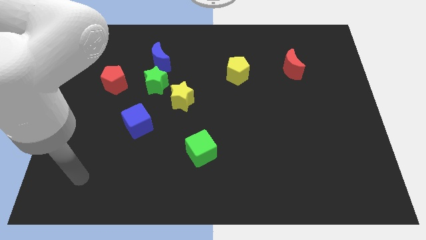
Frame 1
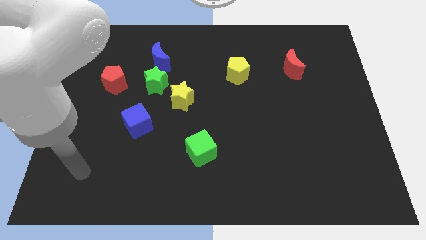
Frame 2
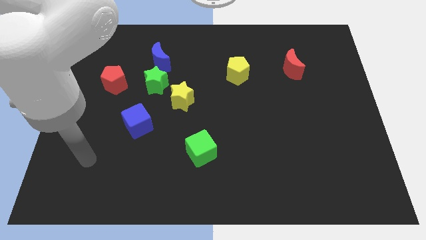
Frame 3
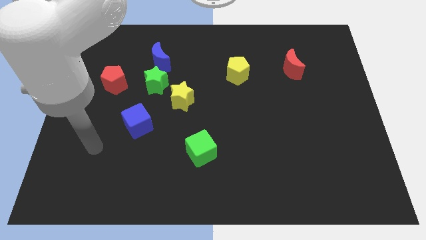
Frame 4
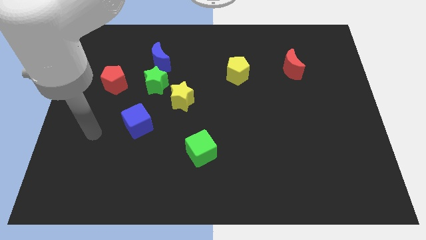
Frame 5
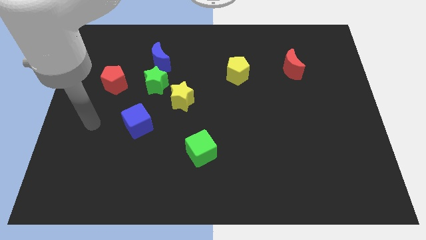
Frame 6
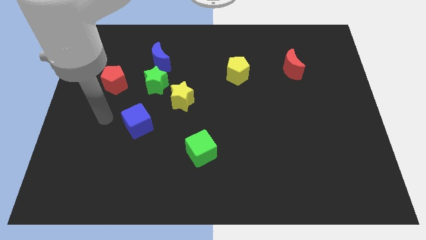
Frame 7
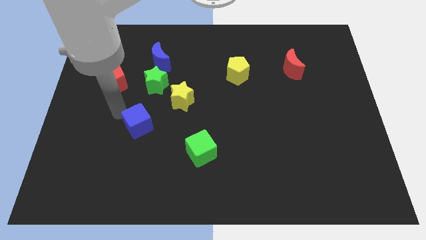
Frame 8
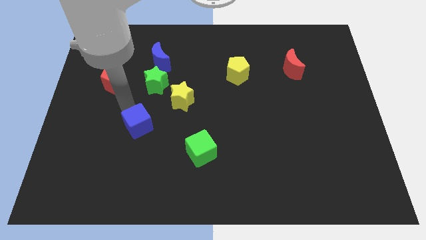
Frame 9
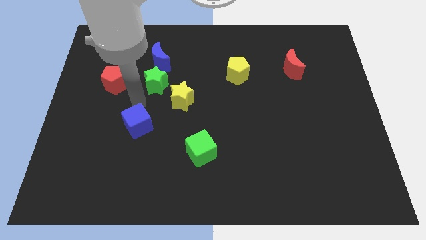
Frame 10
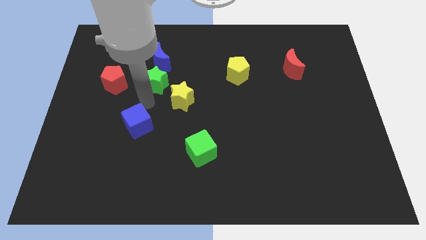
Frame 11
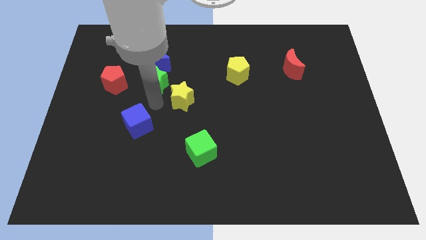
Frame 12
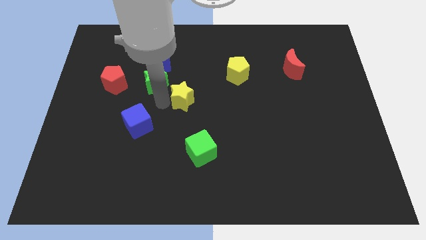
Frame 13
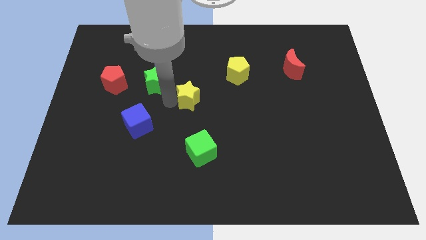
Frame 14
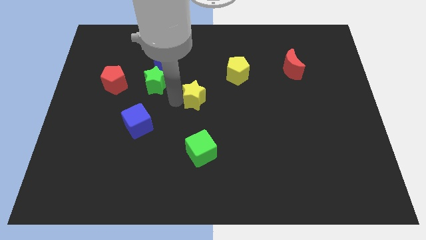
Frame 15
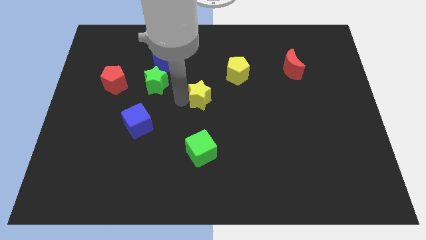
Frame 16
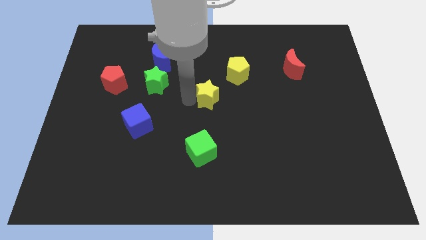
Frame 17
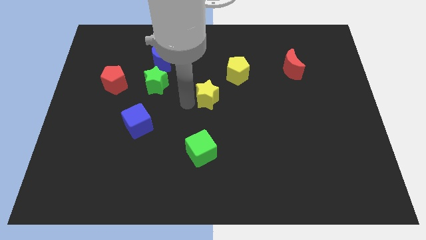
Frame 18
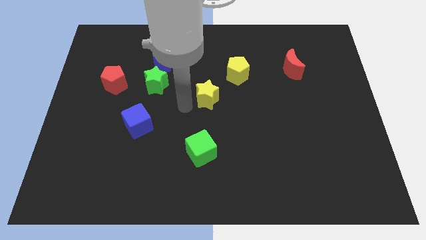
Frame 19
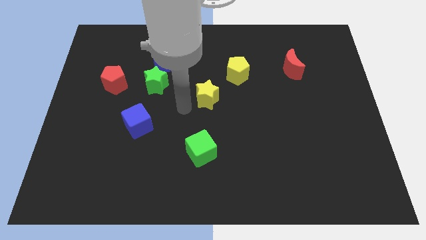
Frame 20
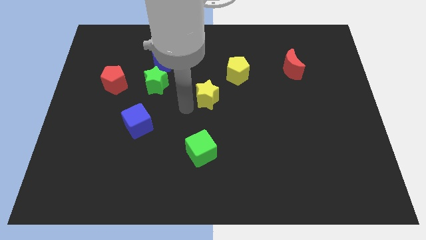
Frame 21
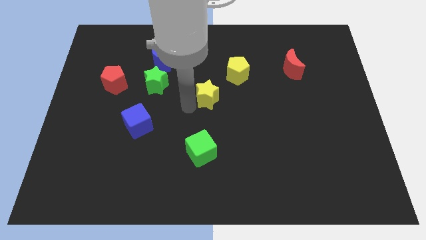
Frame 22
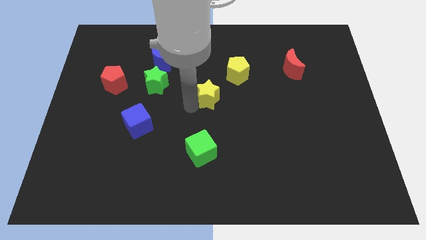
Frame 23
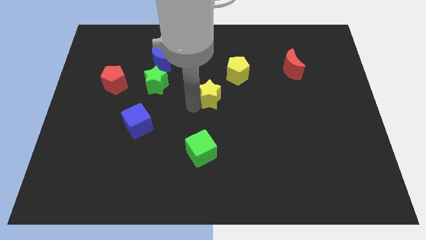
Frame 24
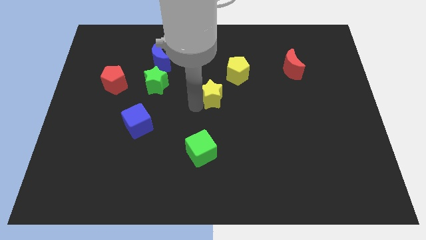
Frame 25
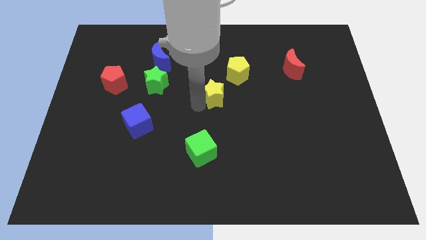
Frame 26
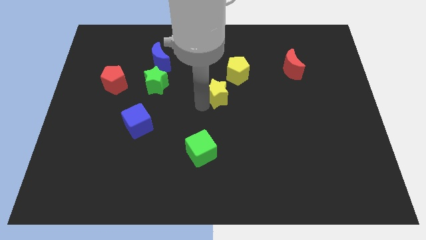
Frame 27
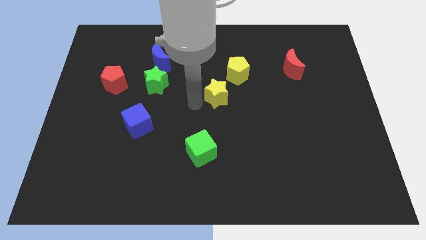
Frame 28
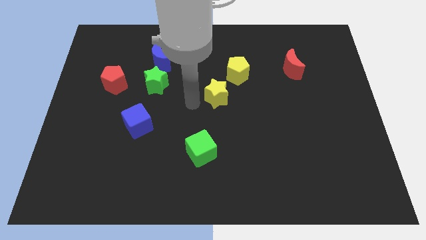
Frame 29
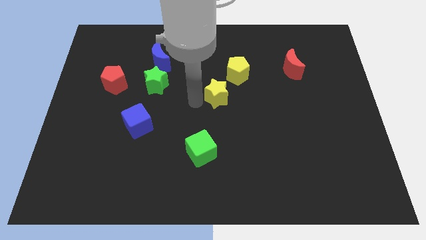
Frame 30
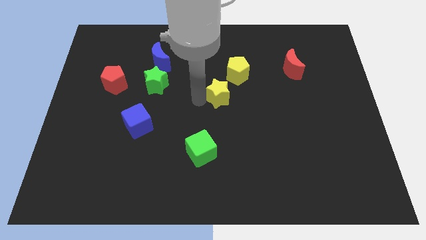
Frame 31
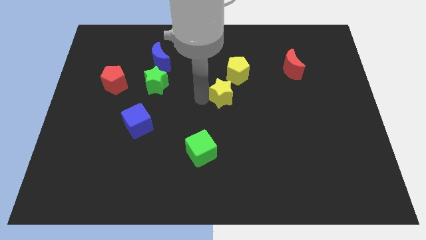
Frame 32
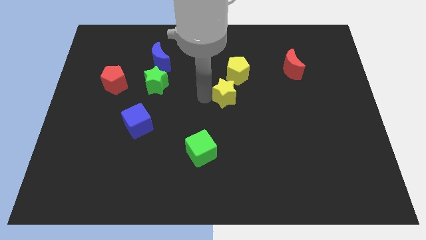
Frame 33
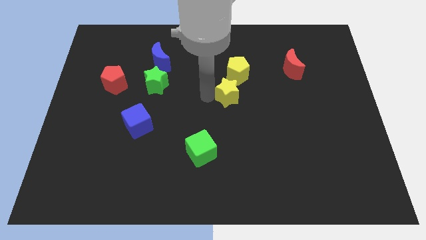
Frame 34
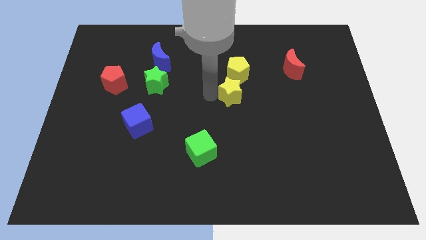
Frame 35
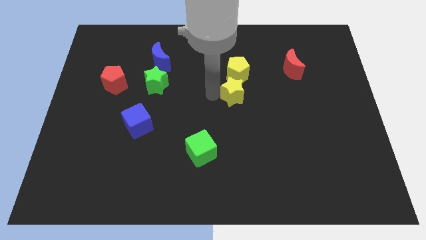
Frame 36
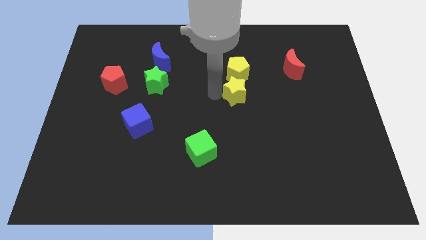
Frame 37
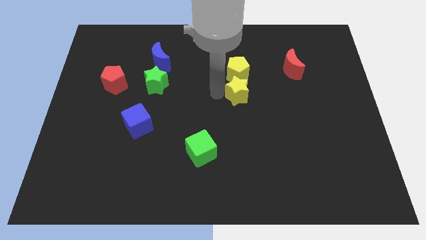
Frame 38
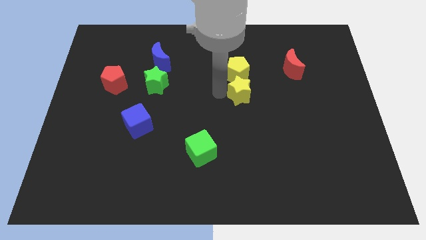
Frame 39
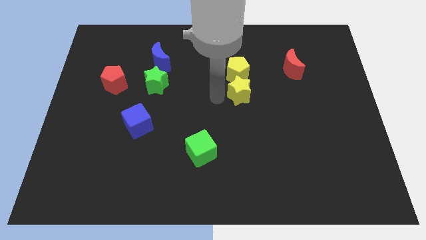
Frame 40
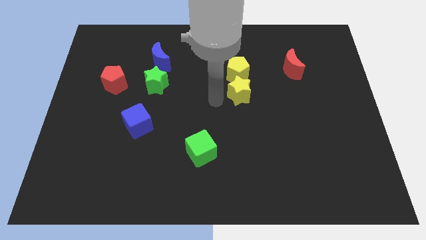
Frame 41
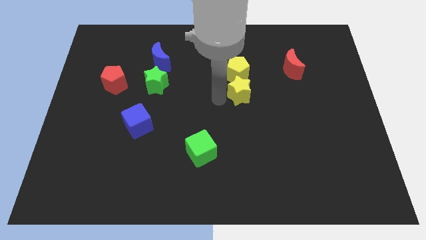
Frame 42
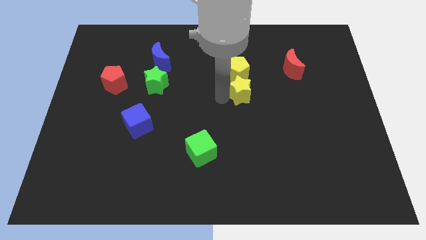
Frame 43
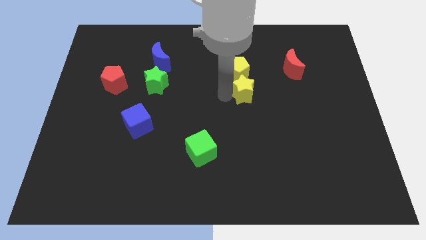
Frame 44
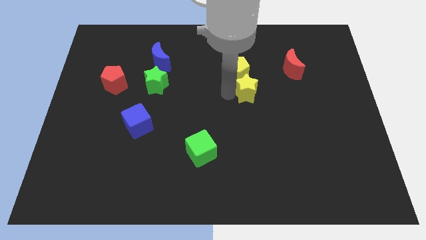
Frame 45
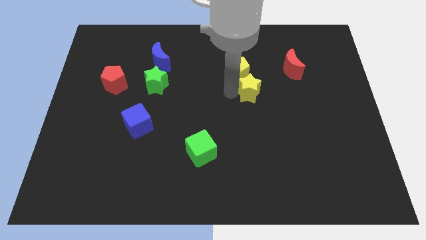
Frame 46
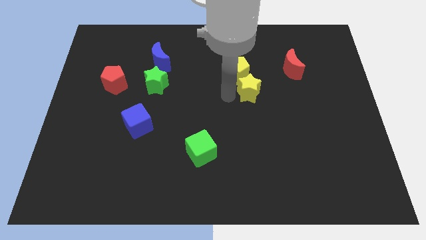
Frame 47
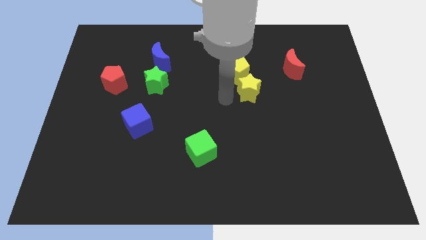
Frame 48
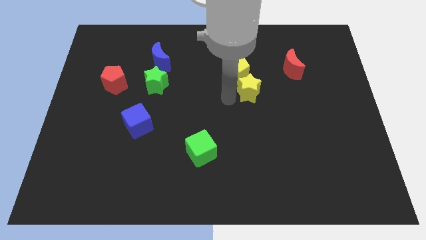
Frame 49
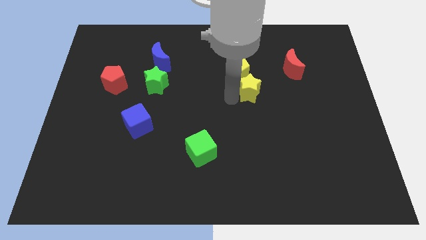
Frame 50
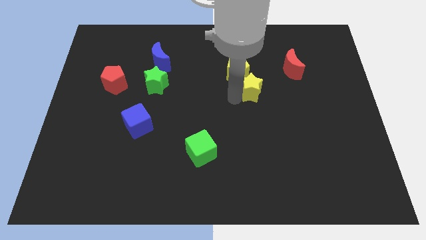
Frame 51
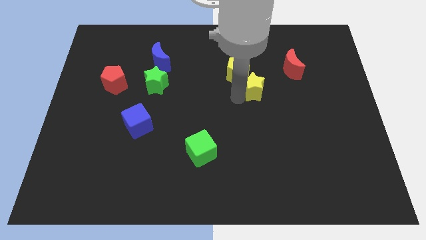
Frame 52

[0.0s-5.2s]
move the yellow star to the bottom left side of the red moon

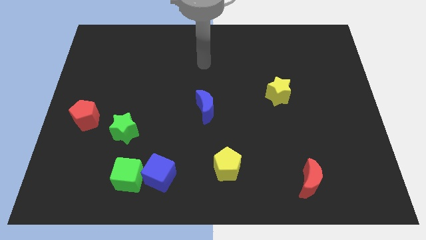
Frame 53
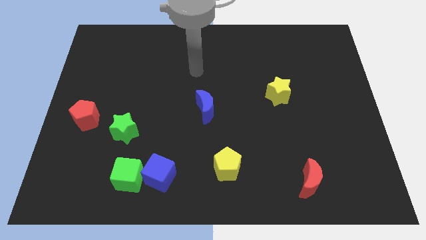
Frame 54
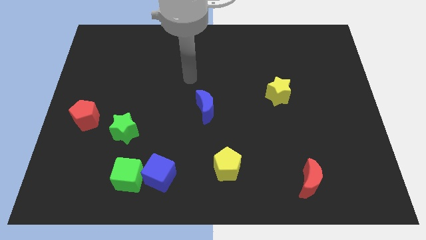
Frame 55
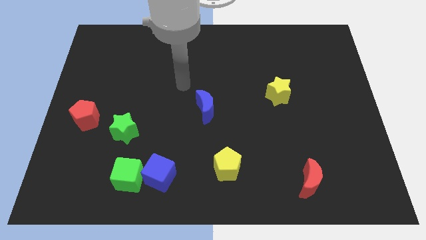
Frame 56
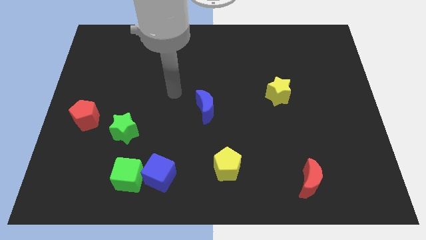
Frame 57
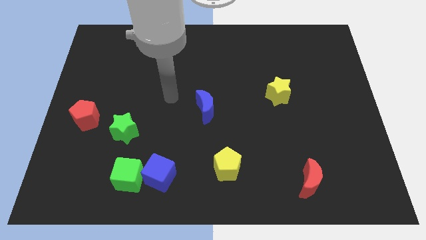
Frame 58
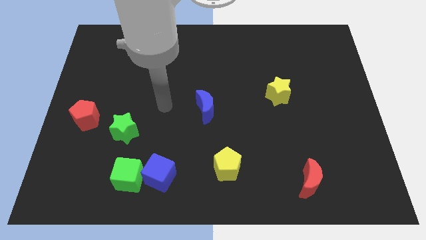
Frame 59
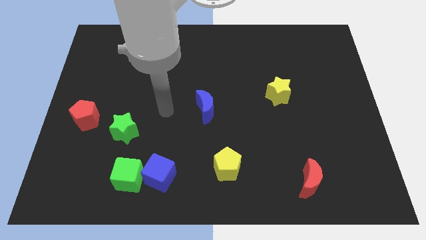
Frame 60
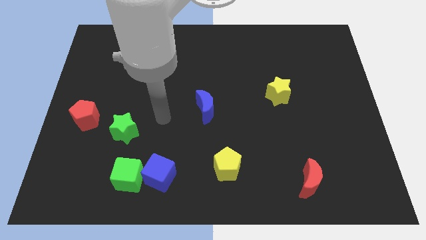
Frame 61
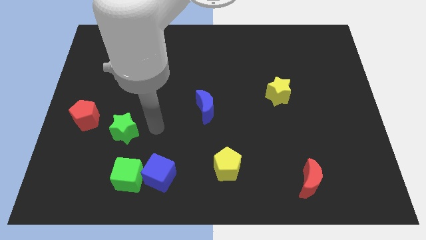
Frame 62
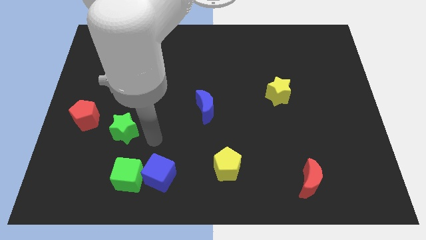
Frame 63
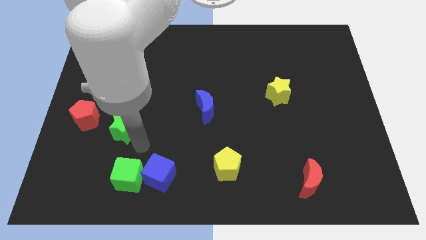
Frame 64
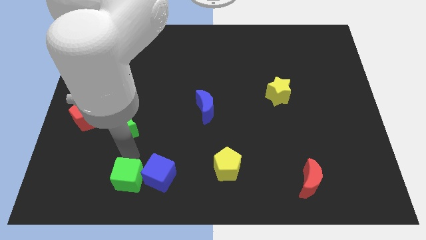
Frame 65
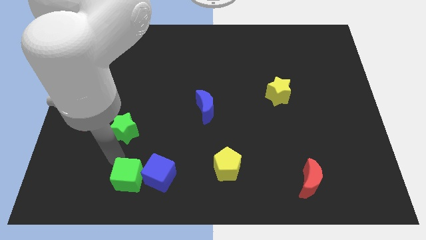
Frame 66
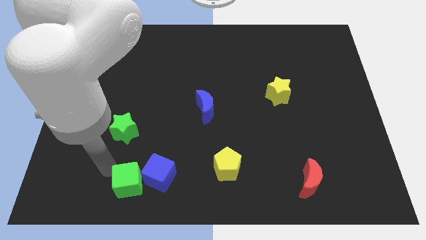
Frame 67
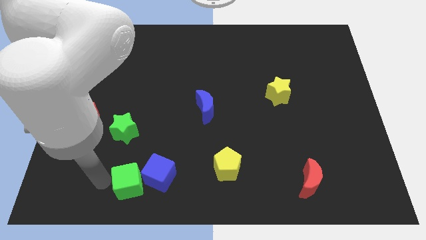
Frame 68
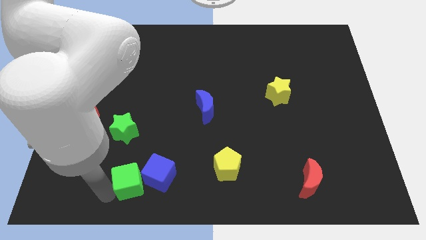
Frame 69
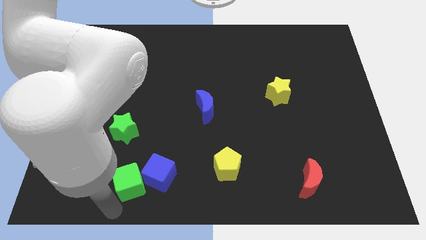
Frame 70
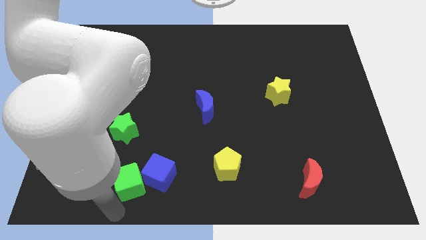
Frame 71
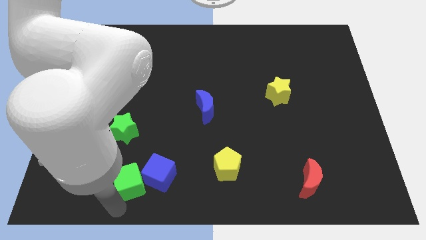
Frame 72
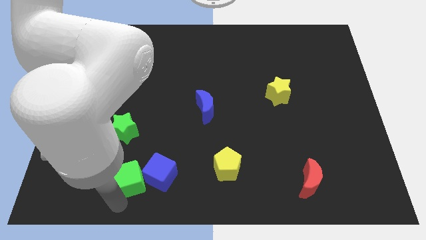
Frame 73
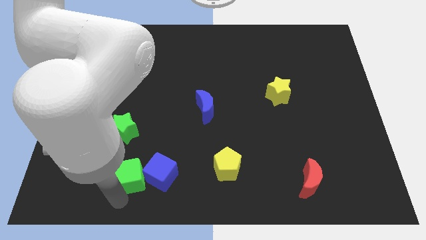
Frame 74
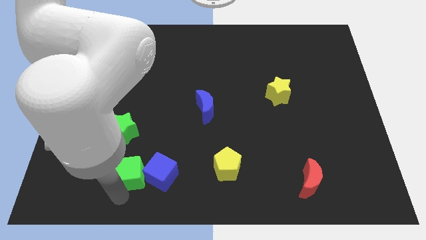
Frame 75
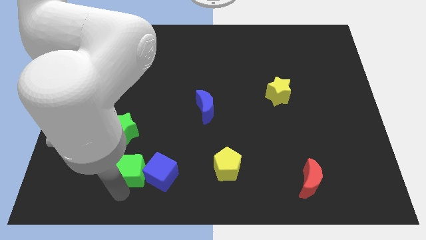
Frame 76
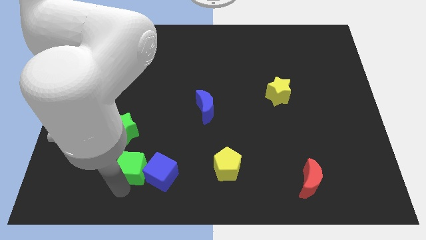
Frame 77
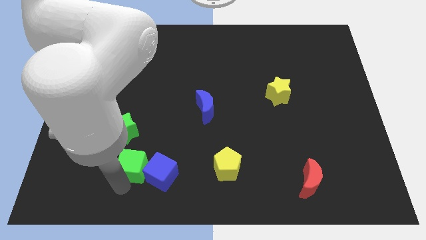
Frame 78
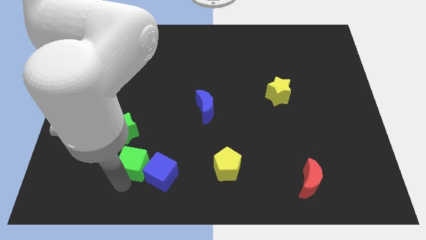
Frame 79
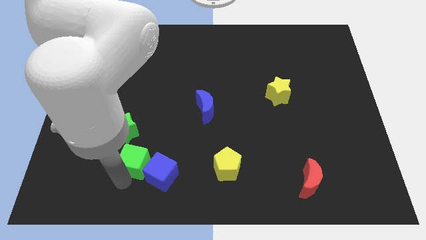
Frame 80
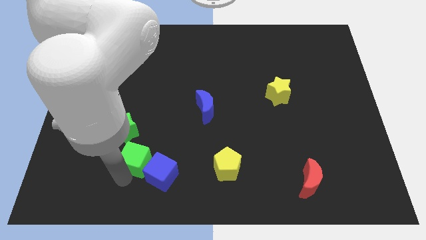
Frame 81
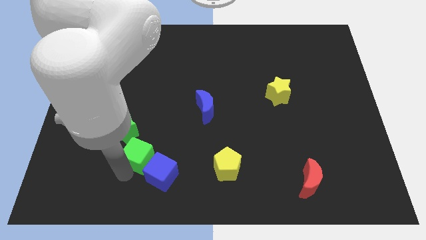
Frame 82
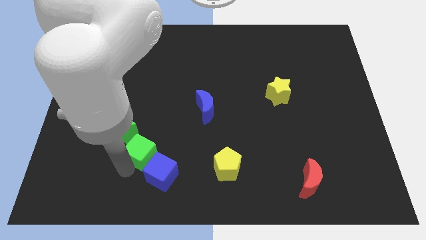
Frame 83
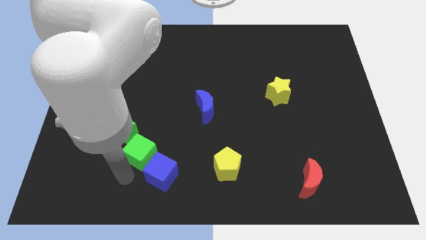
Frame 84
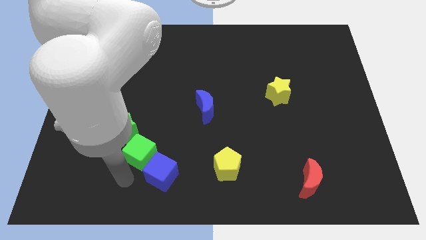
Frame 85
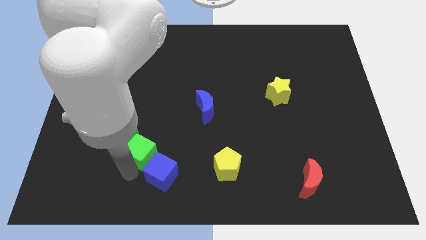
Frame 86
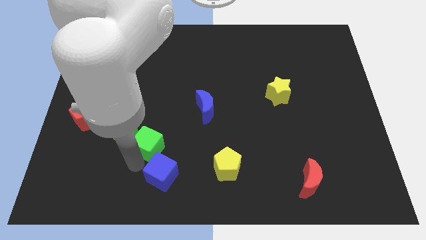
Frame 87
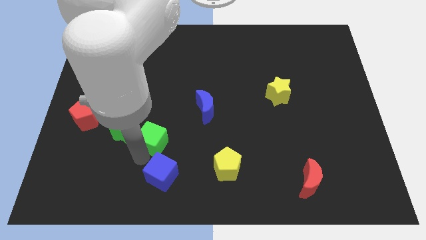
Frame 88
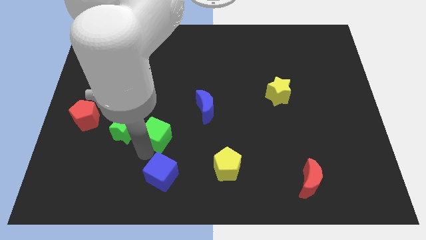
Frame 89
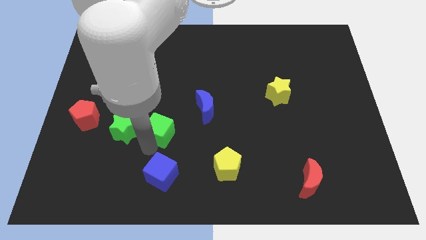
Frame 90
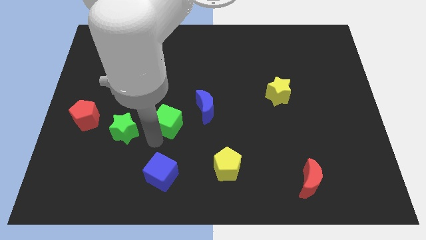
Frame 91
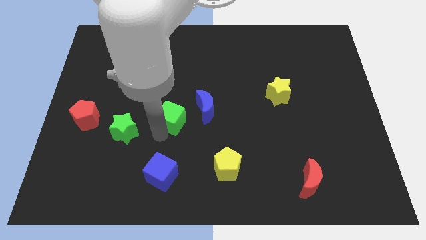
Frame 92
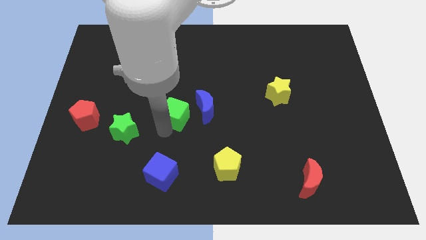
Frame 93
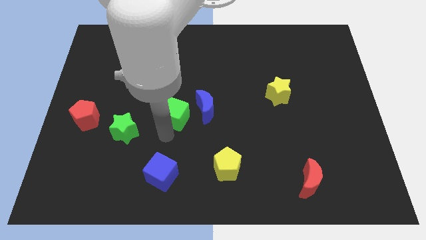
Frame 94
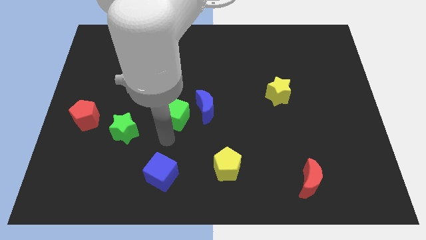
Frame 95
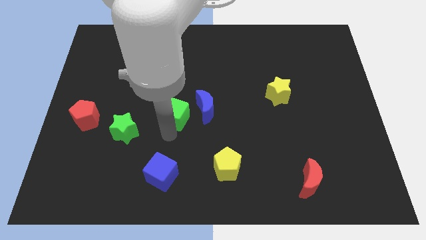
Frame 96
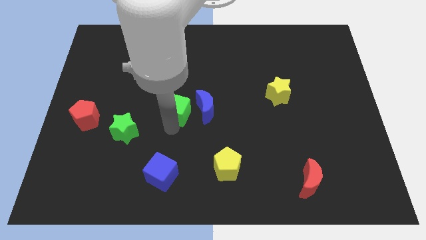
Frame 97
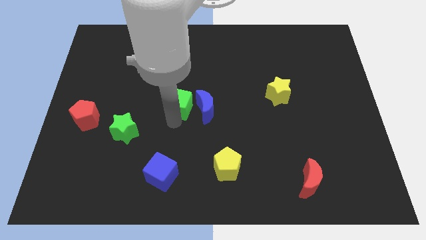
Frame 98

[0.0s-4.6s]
slide the green cube to the top left side of the blue moon
